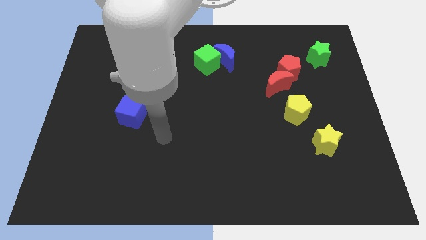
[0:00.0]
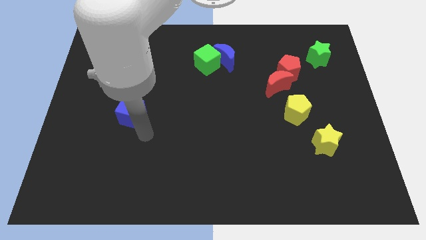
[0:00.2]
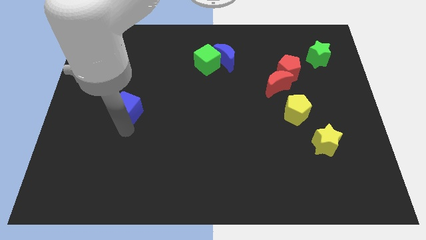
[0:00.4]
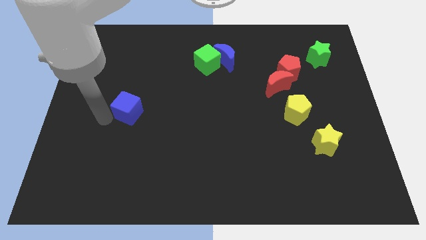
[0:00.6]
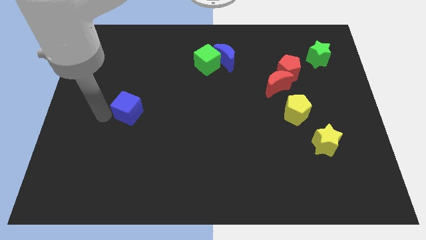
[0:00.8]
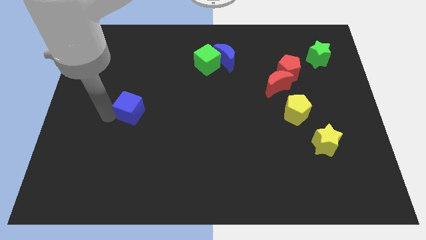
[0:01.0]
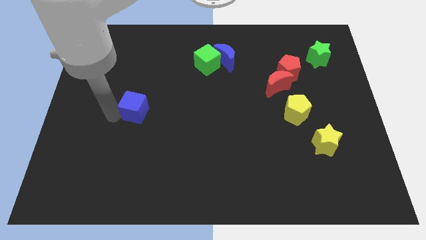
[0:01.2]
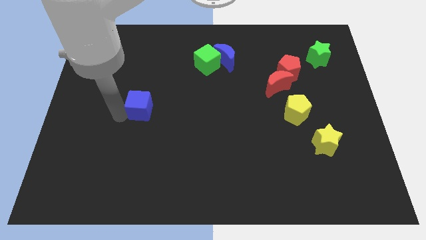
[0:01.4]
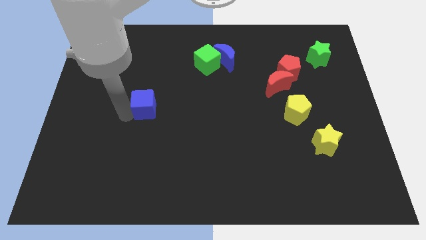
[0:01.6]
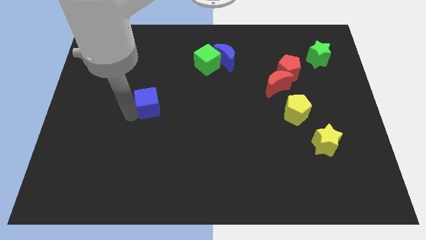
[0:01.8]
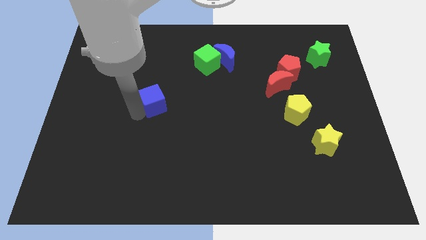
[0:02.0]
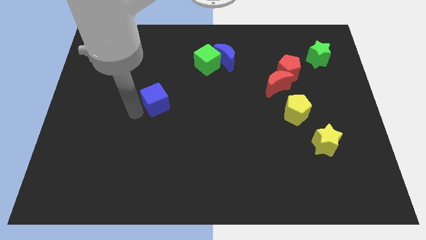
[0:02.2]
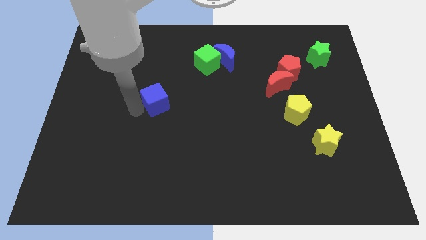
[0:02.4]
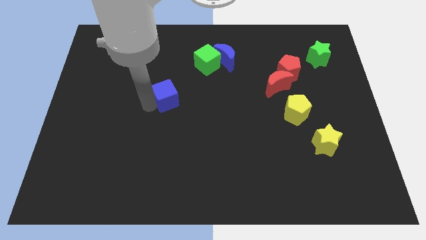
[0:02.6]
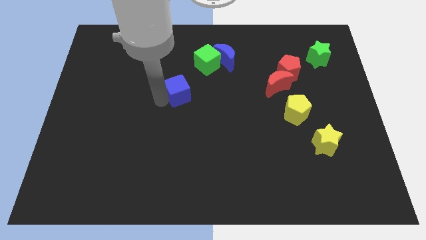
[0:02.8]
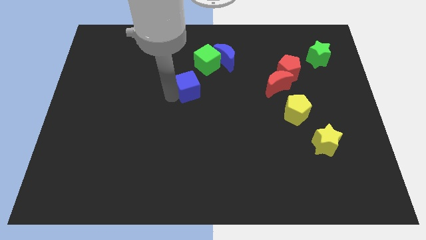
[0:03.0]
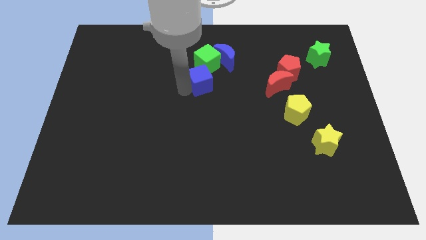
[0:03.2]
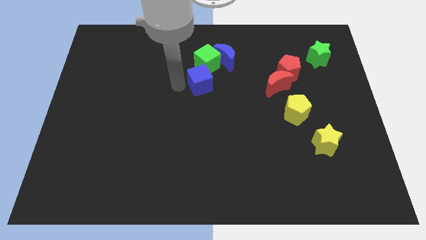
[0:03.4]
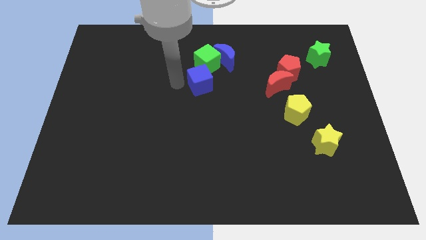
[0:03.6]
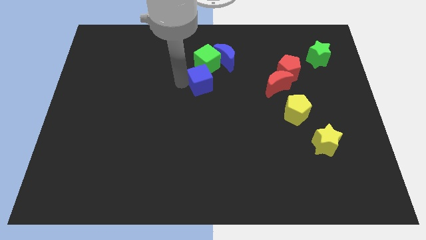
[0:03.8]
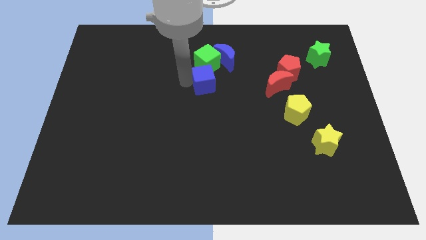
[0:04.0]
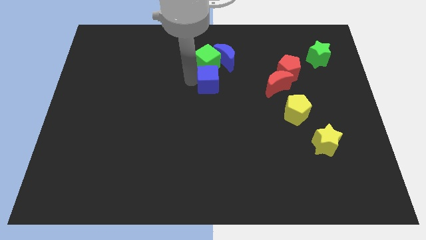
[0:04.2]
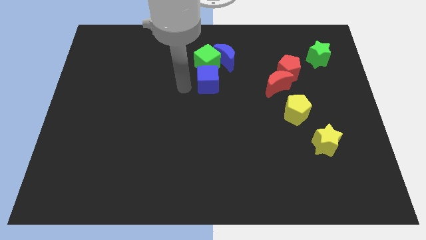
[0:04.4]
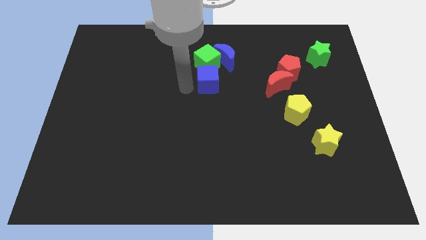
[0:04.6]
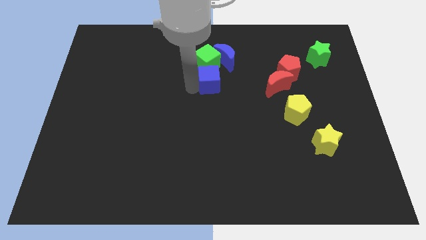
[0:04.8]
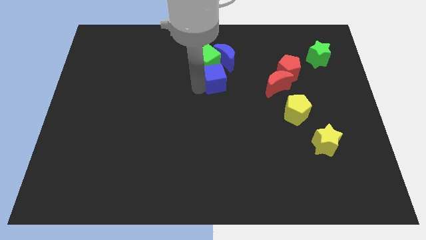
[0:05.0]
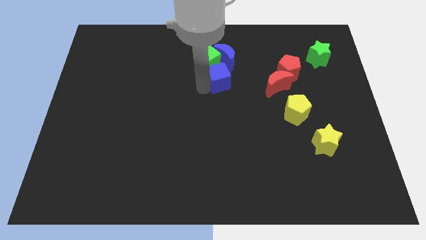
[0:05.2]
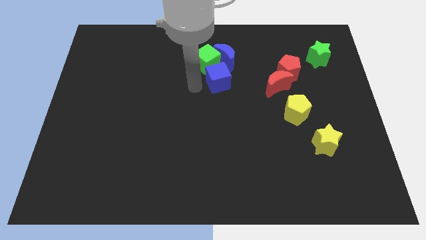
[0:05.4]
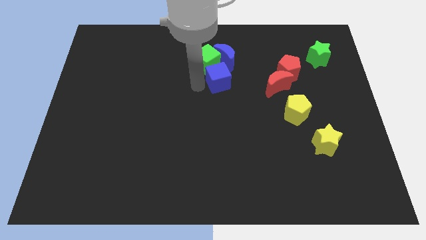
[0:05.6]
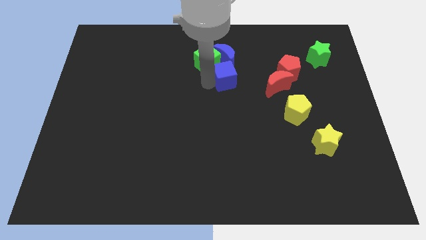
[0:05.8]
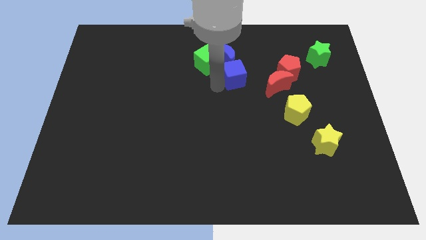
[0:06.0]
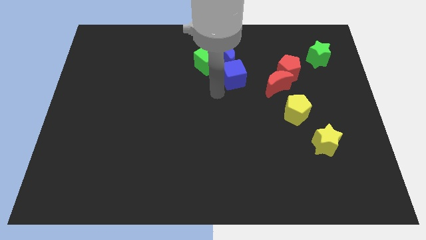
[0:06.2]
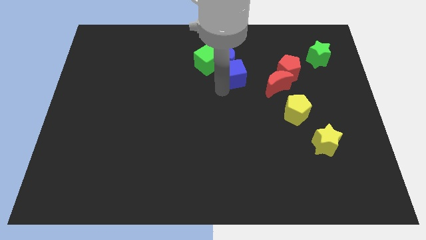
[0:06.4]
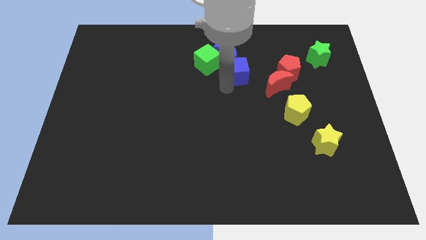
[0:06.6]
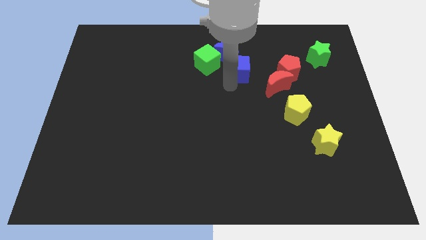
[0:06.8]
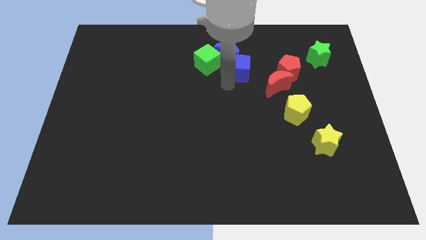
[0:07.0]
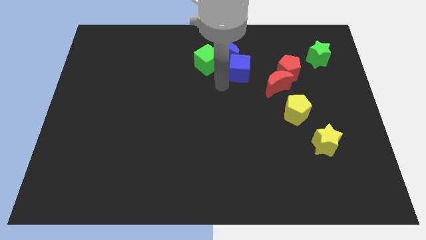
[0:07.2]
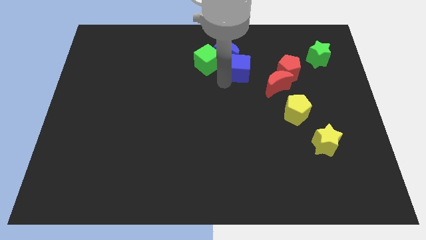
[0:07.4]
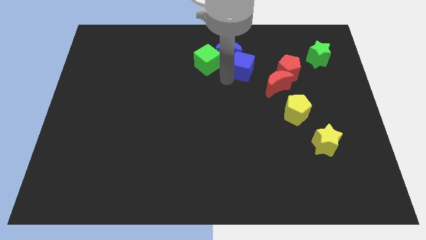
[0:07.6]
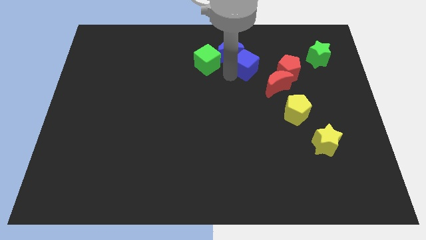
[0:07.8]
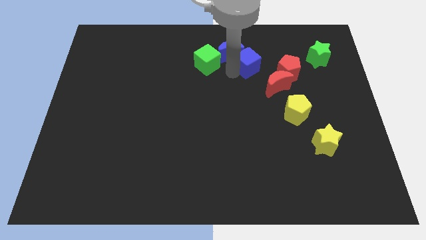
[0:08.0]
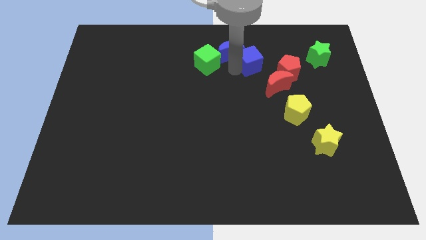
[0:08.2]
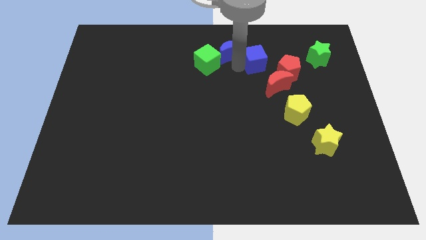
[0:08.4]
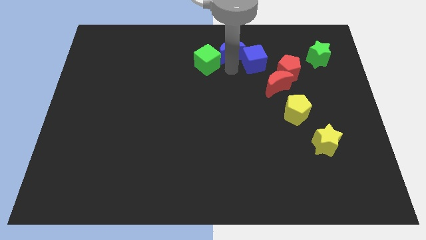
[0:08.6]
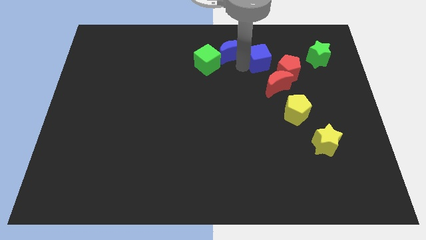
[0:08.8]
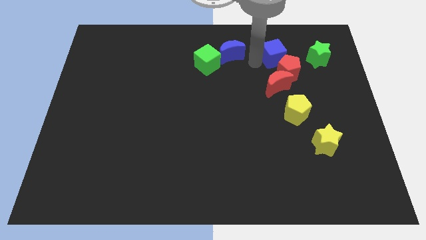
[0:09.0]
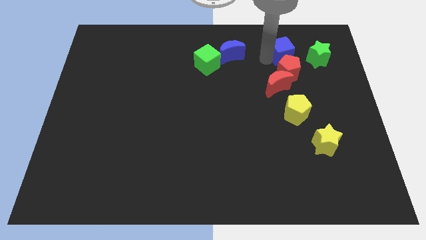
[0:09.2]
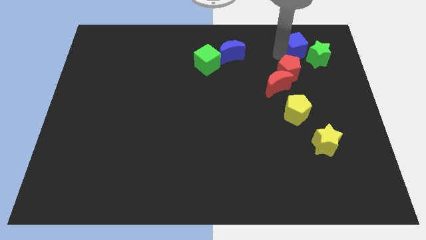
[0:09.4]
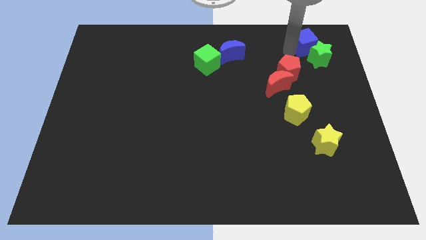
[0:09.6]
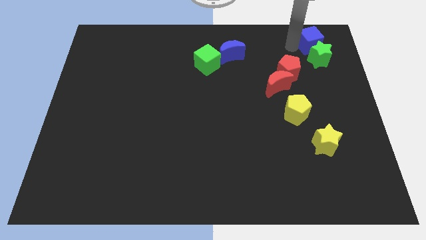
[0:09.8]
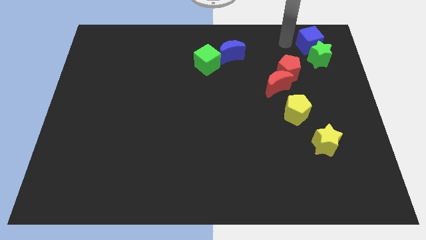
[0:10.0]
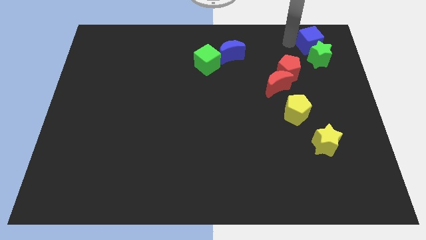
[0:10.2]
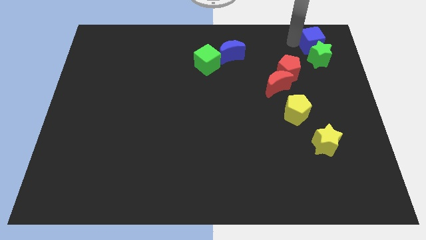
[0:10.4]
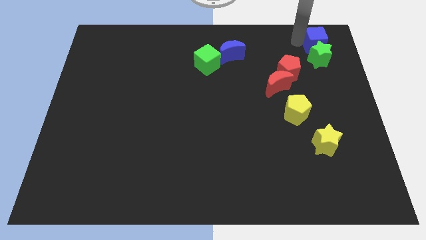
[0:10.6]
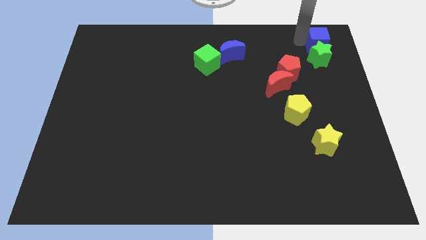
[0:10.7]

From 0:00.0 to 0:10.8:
move the blue cube to the top right

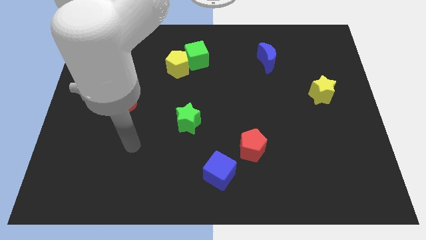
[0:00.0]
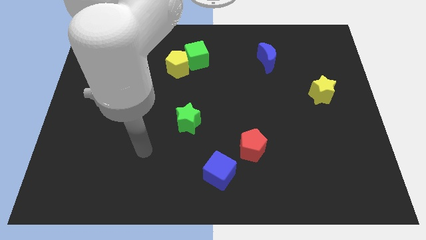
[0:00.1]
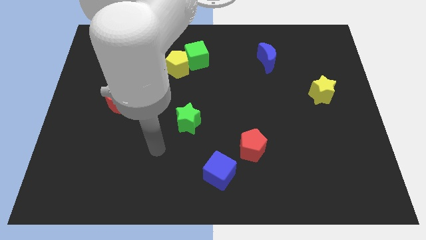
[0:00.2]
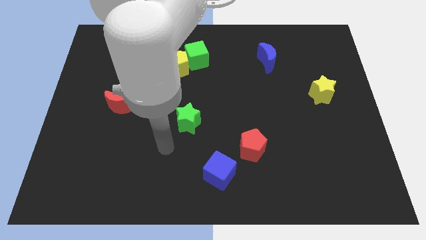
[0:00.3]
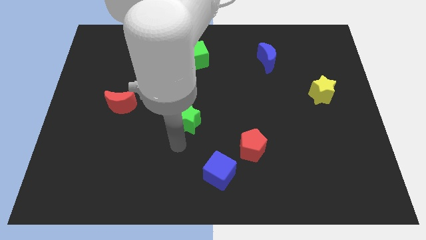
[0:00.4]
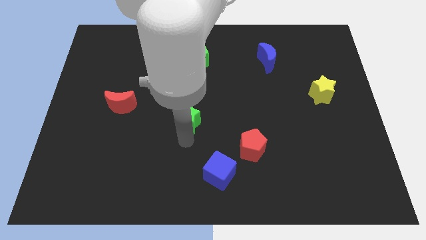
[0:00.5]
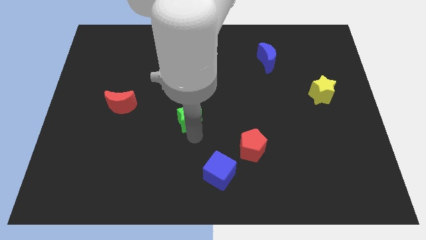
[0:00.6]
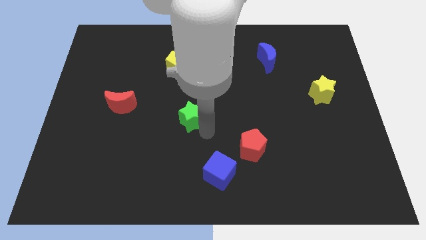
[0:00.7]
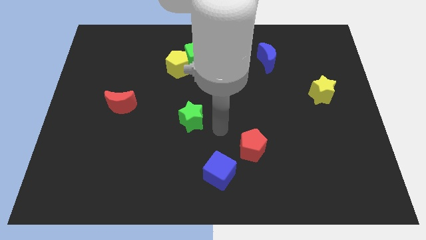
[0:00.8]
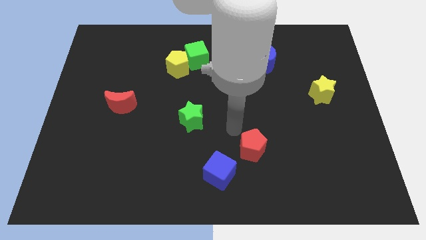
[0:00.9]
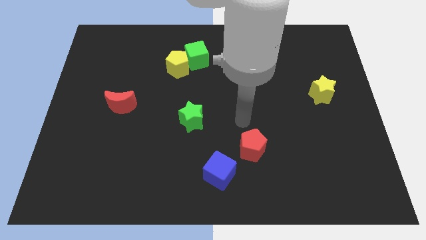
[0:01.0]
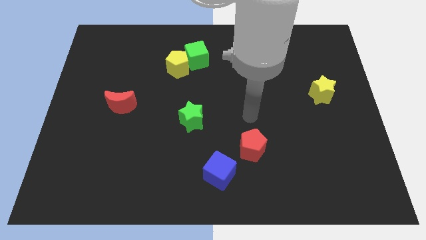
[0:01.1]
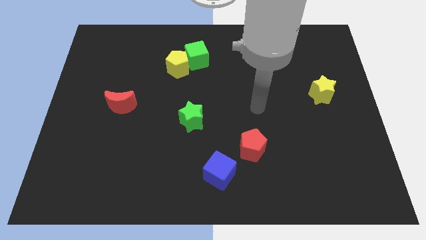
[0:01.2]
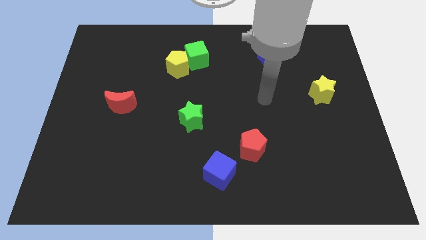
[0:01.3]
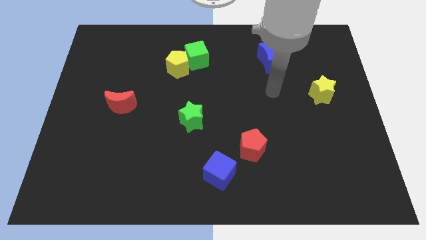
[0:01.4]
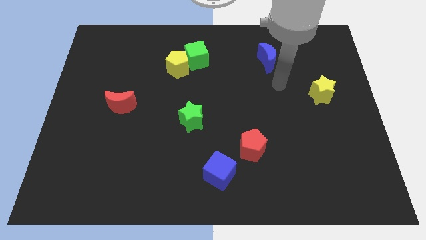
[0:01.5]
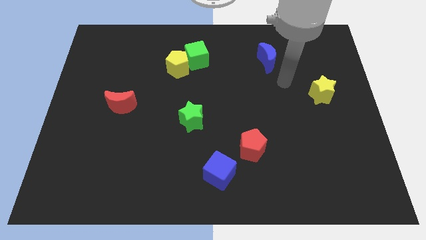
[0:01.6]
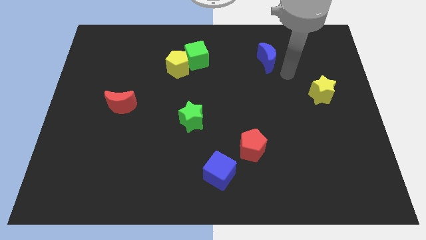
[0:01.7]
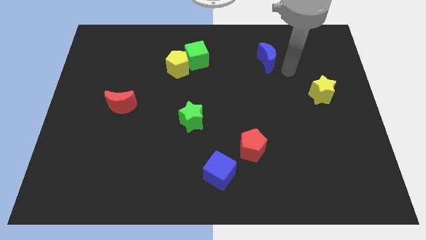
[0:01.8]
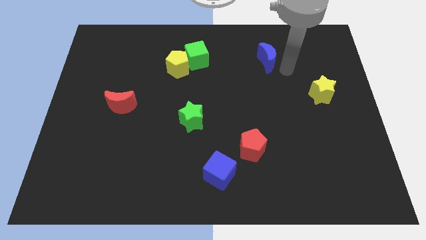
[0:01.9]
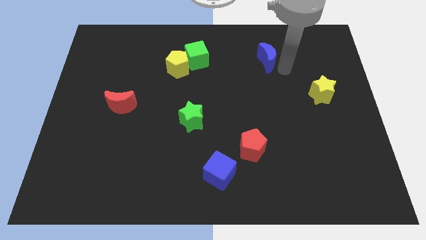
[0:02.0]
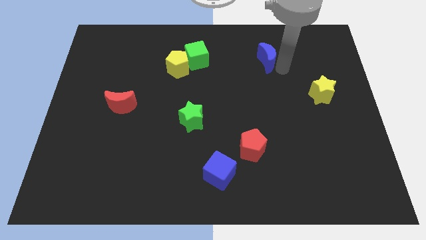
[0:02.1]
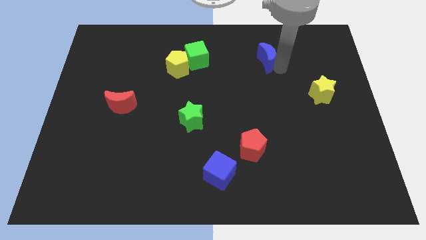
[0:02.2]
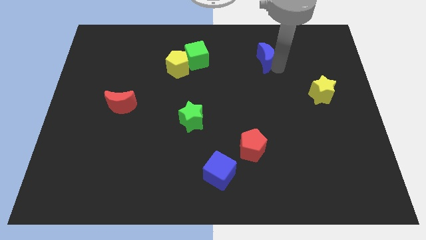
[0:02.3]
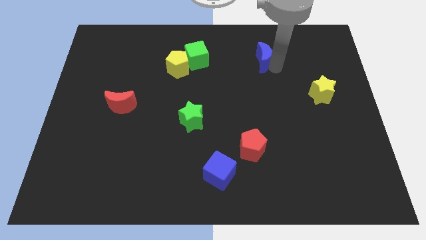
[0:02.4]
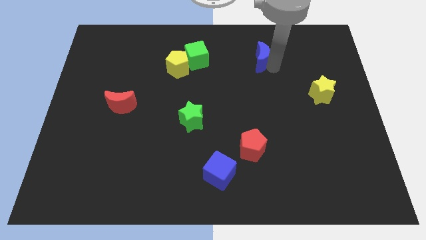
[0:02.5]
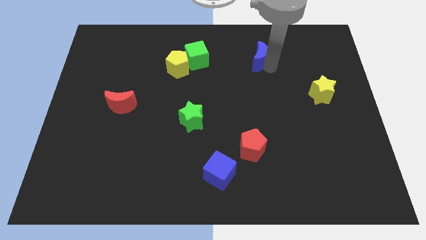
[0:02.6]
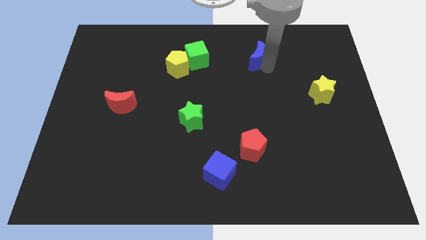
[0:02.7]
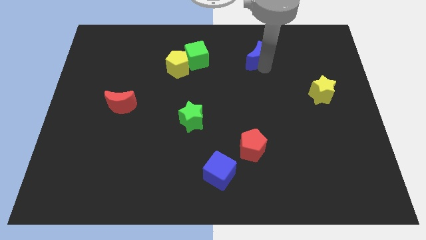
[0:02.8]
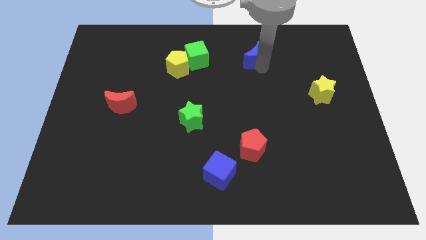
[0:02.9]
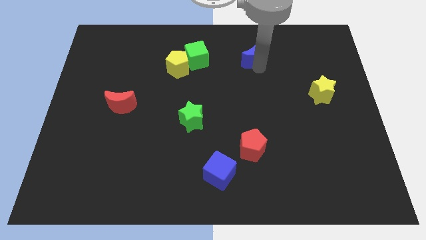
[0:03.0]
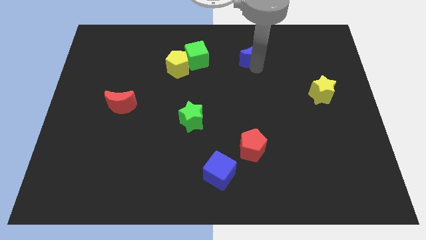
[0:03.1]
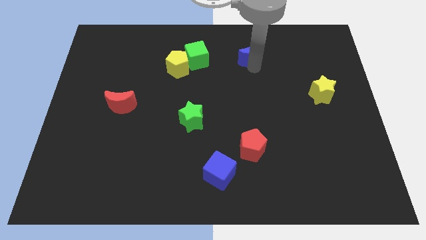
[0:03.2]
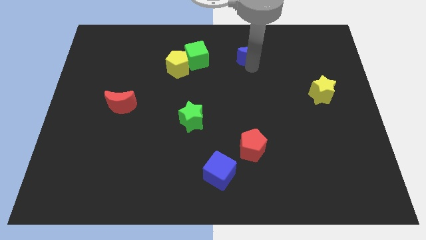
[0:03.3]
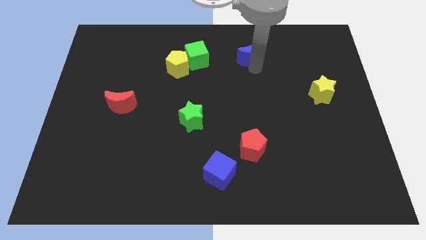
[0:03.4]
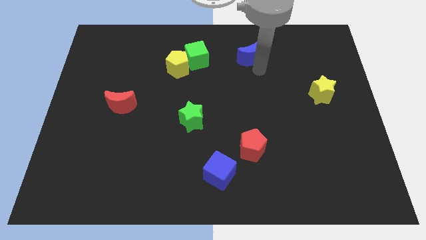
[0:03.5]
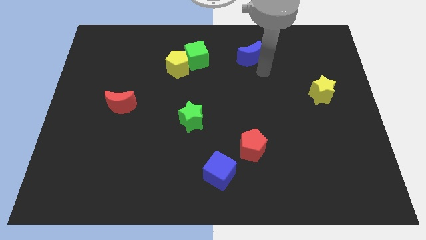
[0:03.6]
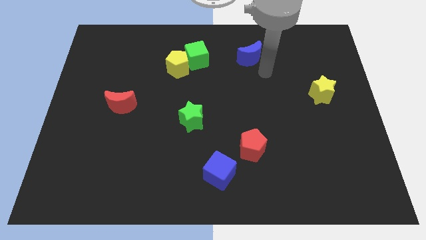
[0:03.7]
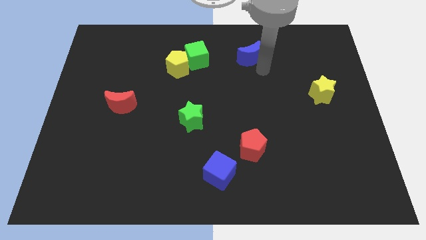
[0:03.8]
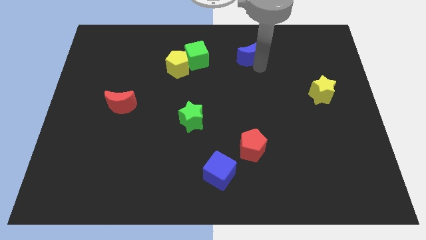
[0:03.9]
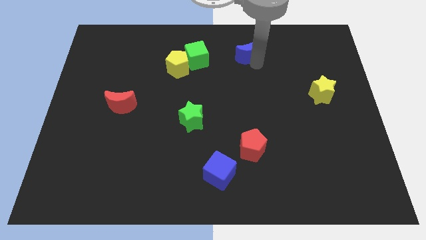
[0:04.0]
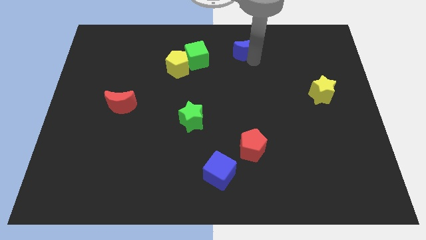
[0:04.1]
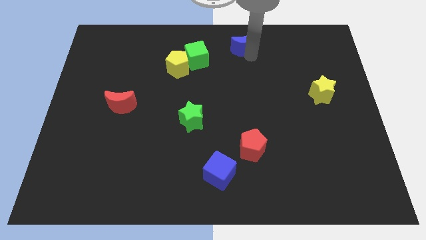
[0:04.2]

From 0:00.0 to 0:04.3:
push the blue moon to the top side
